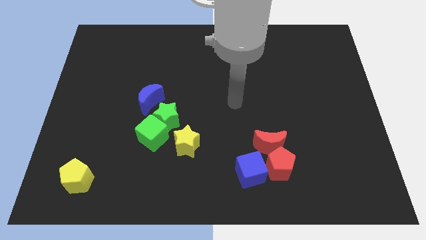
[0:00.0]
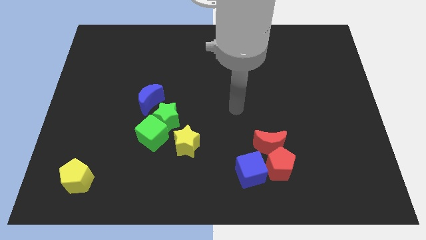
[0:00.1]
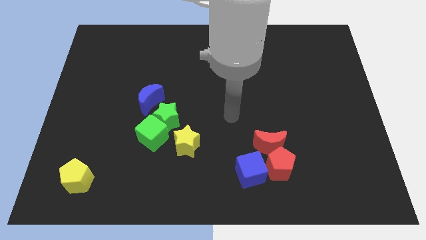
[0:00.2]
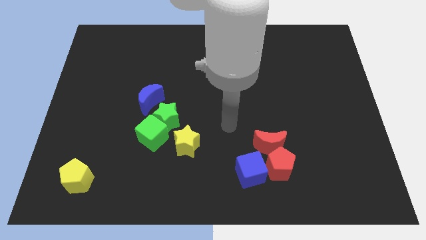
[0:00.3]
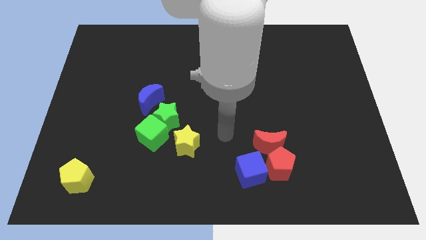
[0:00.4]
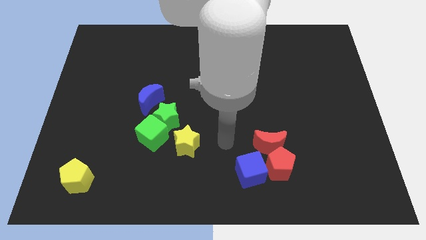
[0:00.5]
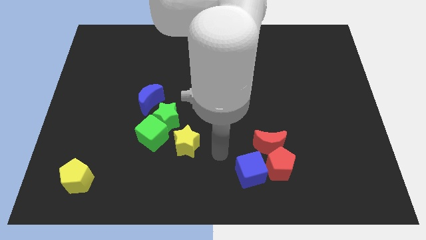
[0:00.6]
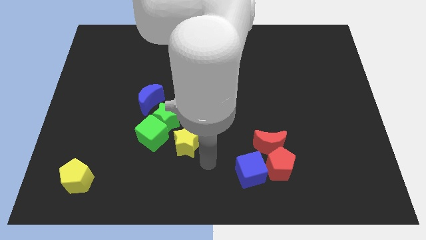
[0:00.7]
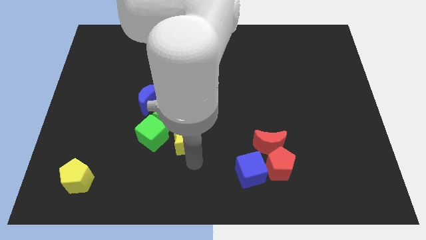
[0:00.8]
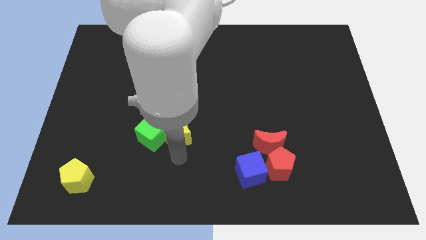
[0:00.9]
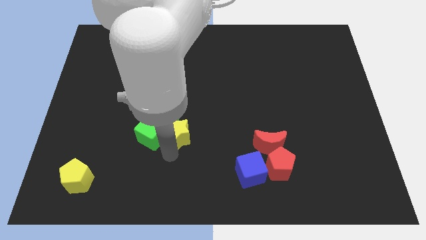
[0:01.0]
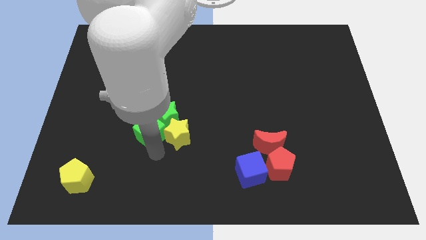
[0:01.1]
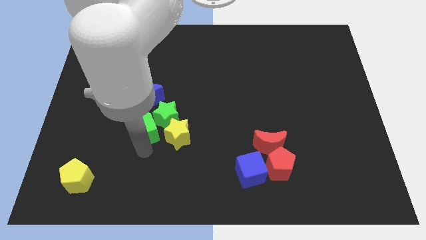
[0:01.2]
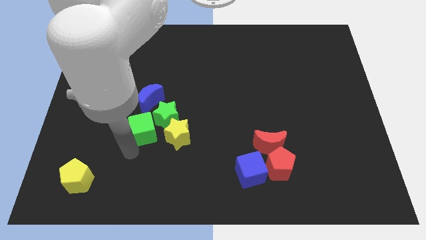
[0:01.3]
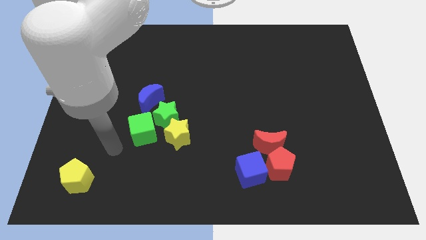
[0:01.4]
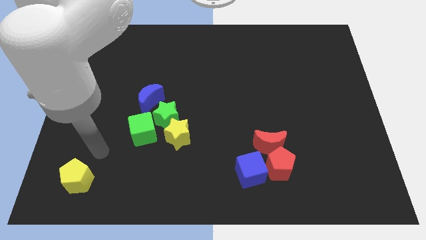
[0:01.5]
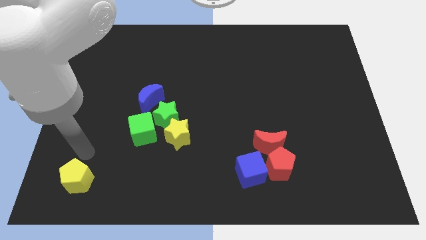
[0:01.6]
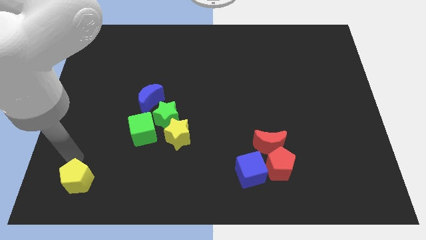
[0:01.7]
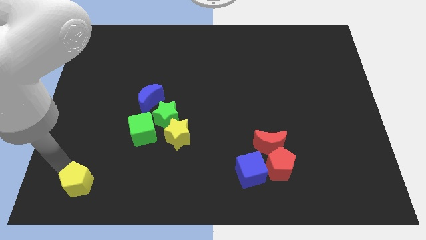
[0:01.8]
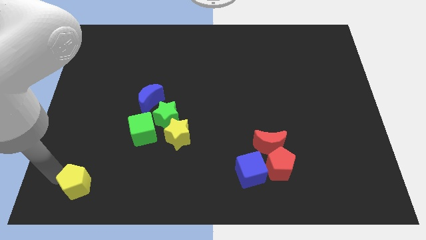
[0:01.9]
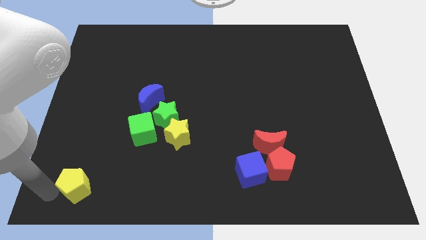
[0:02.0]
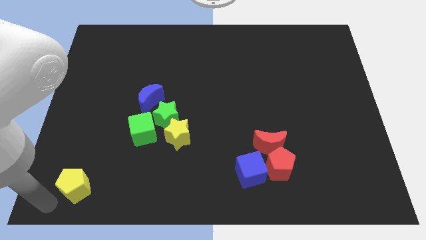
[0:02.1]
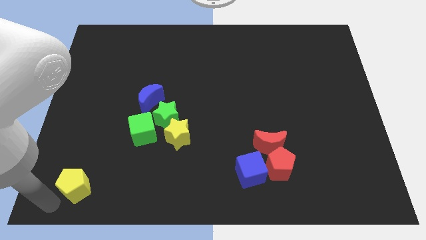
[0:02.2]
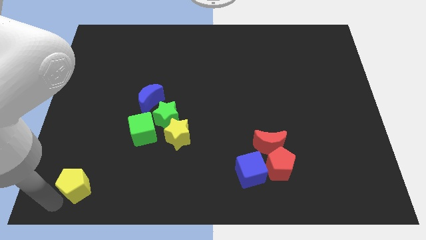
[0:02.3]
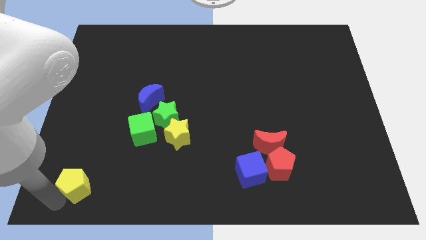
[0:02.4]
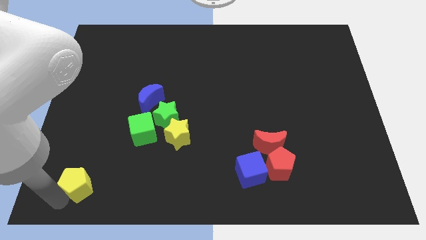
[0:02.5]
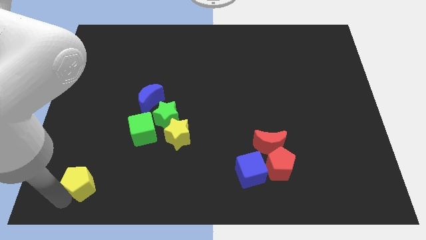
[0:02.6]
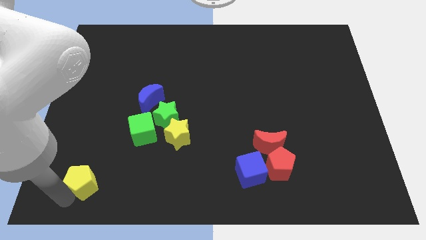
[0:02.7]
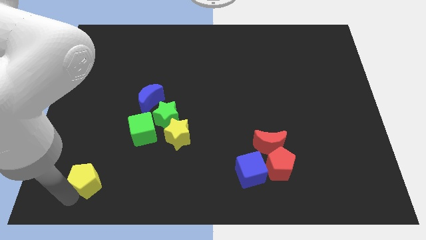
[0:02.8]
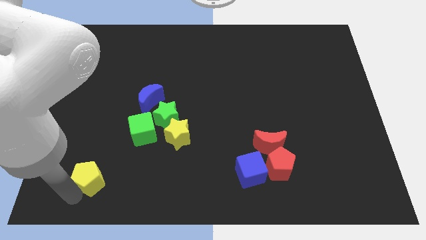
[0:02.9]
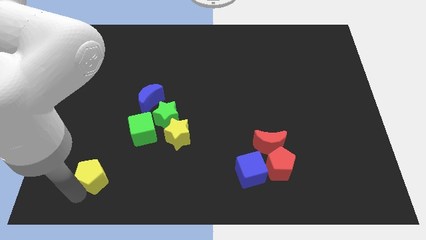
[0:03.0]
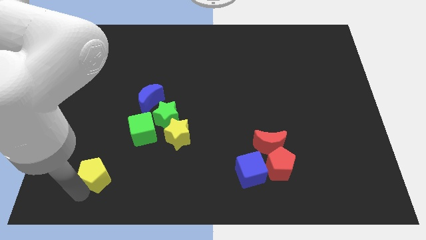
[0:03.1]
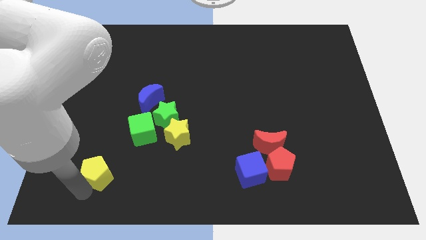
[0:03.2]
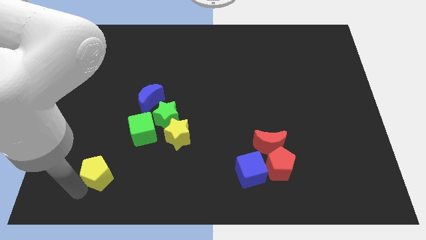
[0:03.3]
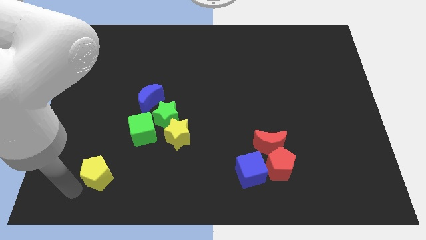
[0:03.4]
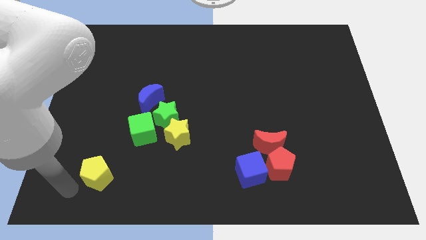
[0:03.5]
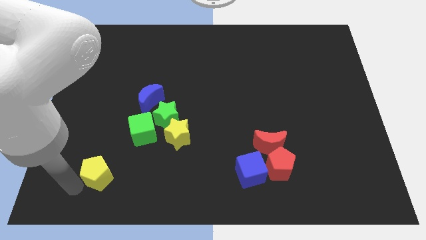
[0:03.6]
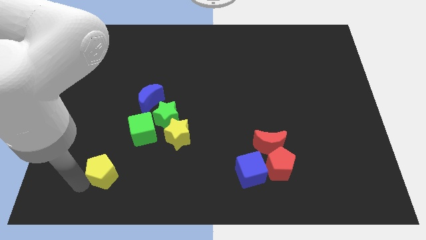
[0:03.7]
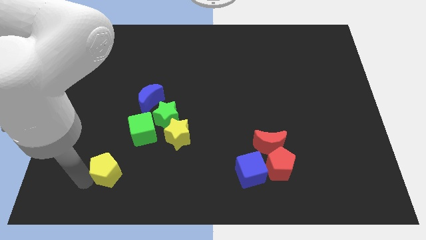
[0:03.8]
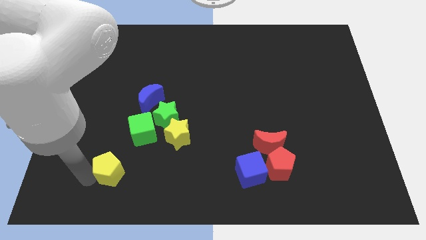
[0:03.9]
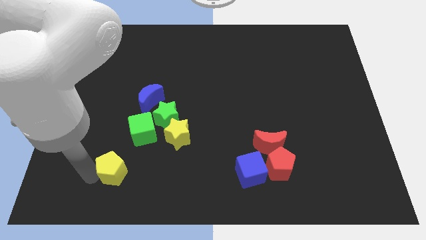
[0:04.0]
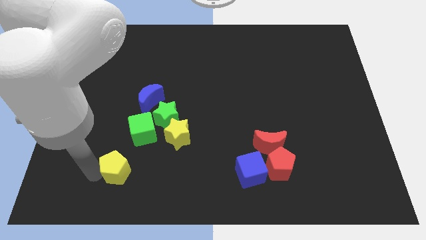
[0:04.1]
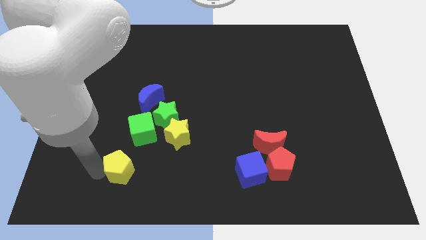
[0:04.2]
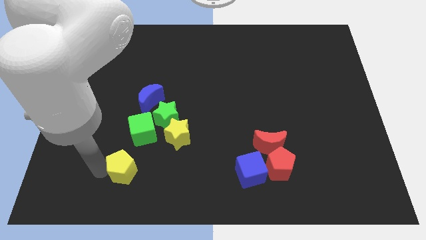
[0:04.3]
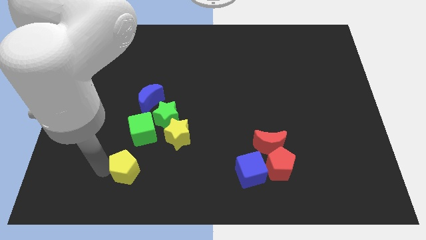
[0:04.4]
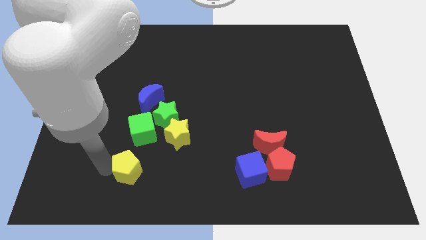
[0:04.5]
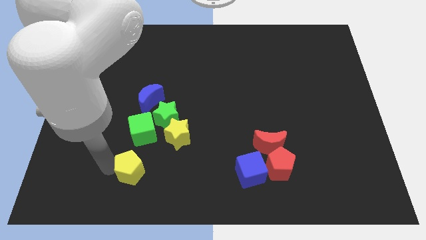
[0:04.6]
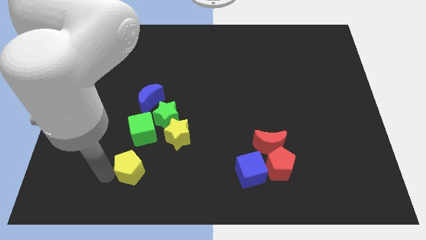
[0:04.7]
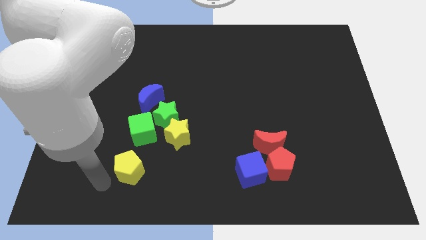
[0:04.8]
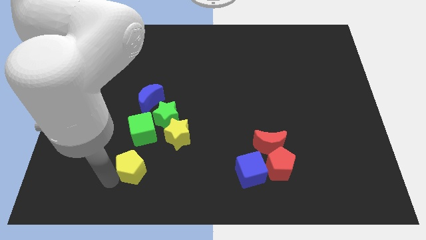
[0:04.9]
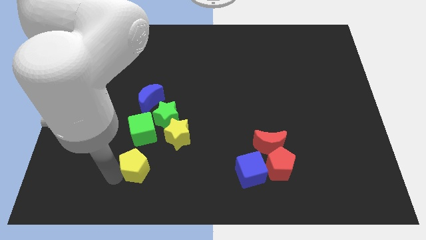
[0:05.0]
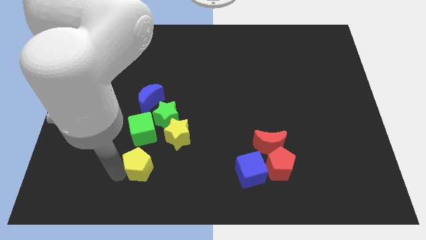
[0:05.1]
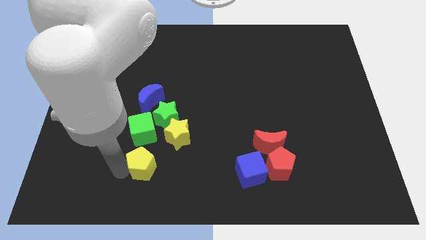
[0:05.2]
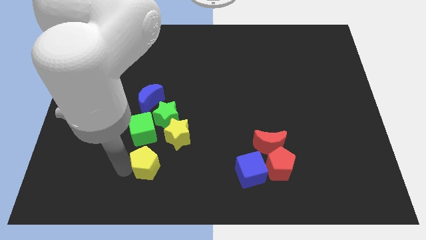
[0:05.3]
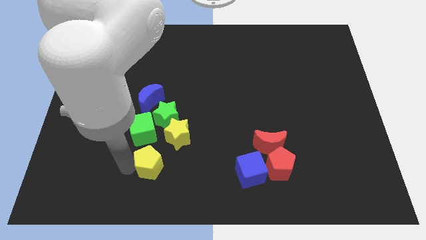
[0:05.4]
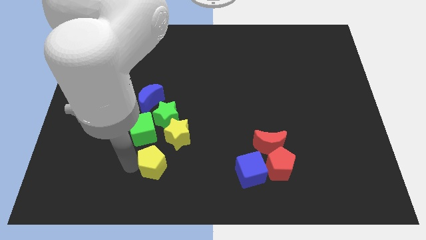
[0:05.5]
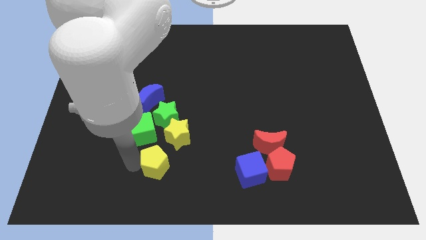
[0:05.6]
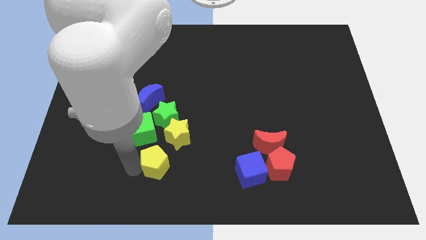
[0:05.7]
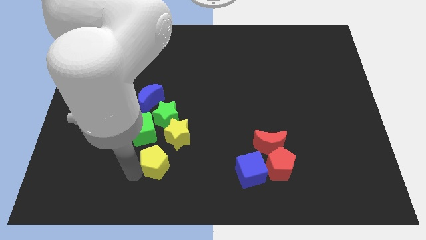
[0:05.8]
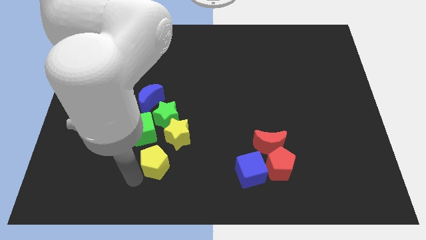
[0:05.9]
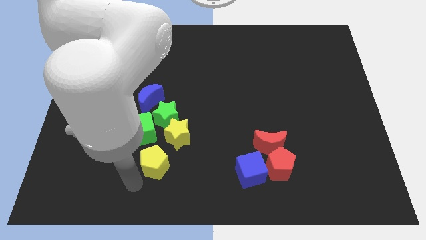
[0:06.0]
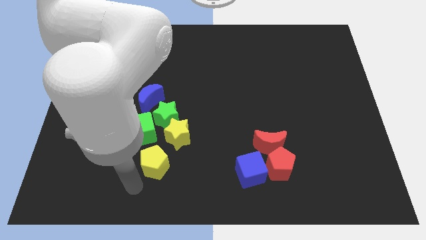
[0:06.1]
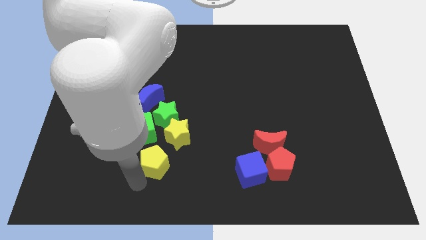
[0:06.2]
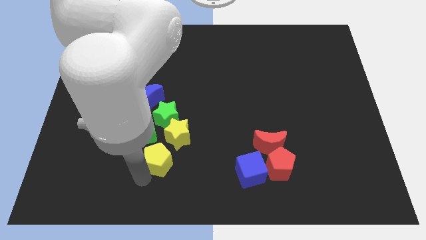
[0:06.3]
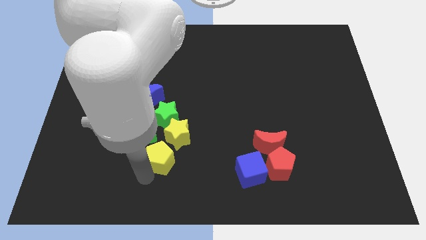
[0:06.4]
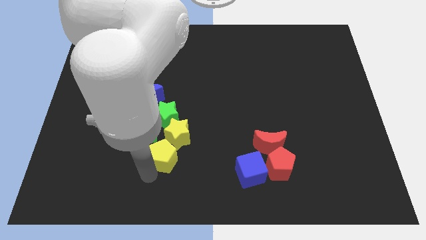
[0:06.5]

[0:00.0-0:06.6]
put the yellow pentagon to the yellow star
